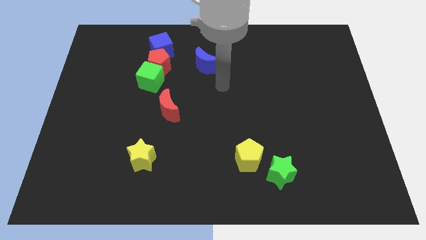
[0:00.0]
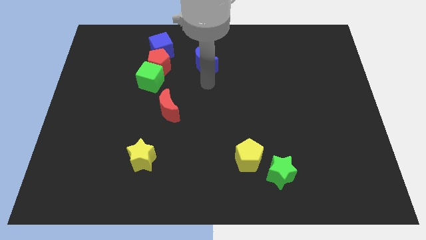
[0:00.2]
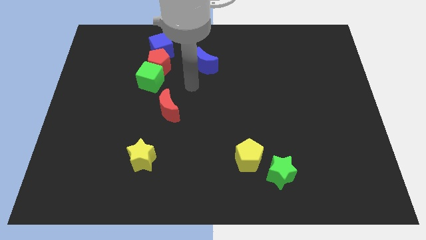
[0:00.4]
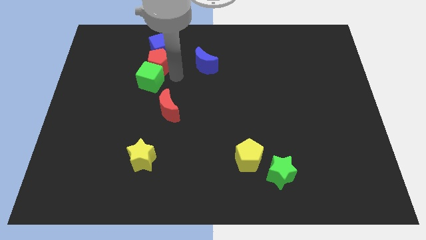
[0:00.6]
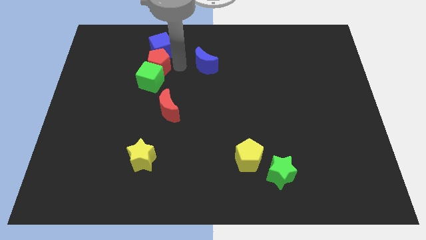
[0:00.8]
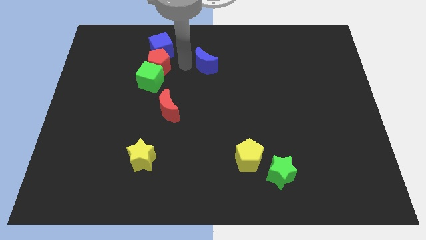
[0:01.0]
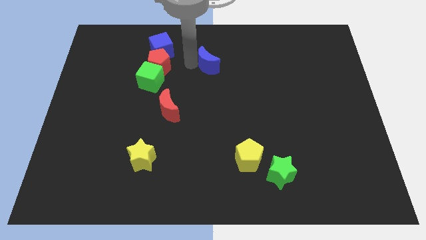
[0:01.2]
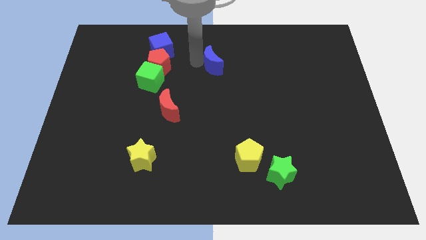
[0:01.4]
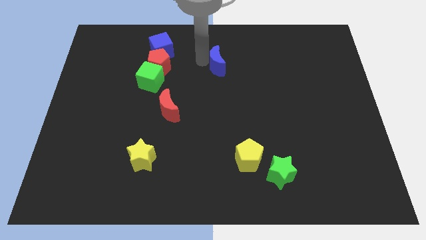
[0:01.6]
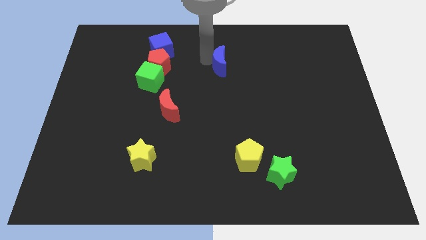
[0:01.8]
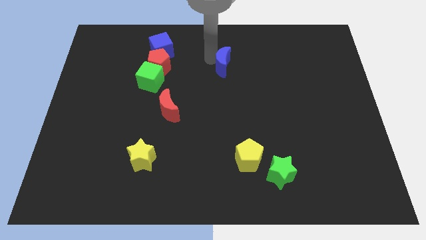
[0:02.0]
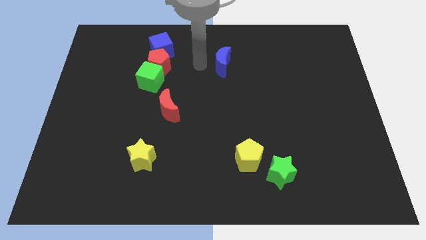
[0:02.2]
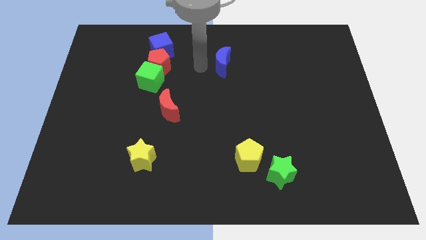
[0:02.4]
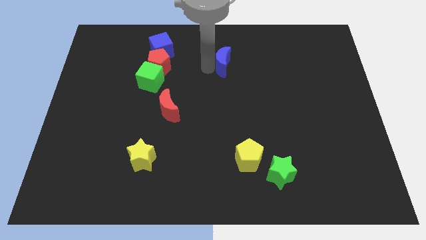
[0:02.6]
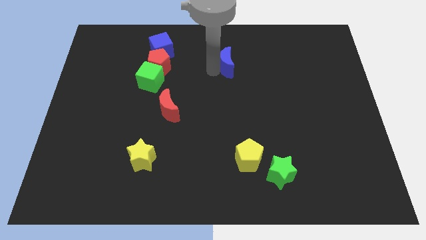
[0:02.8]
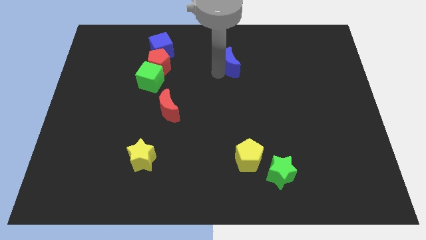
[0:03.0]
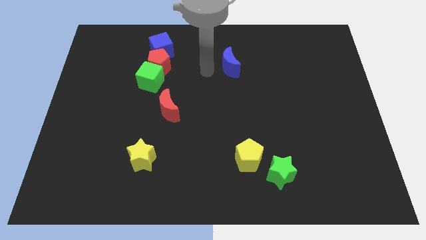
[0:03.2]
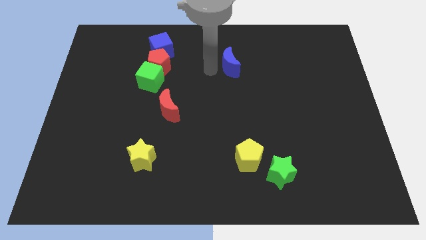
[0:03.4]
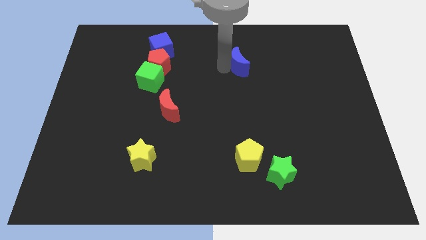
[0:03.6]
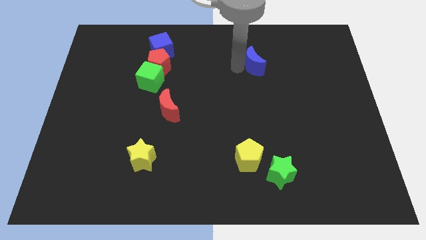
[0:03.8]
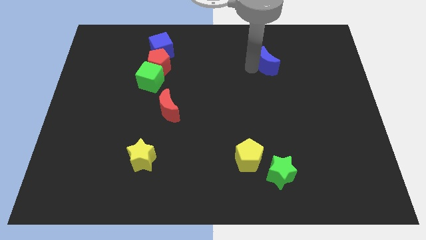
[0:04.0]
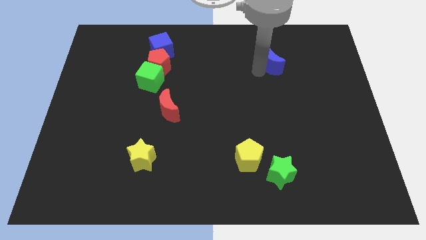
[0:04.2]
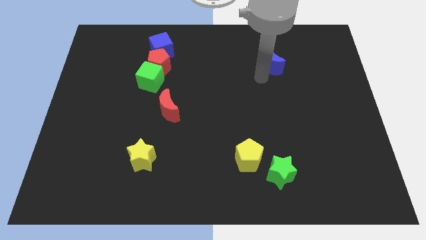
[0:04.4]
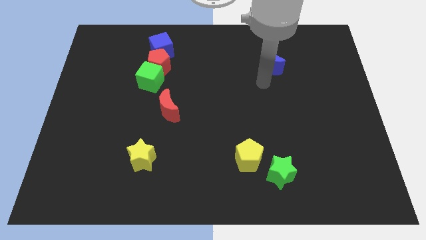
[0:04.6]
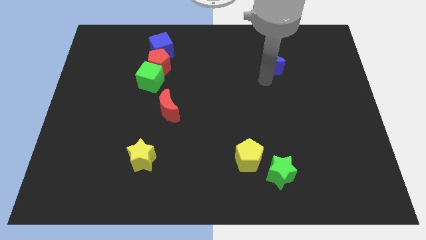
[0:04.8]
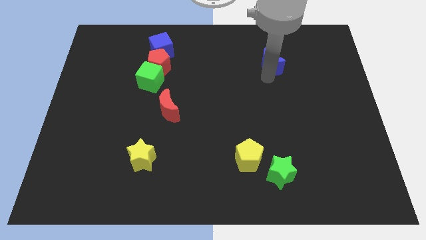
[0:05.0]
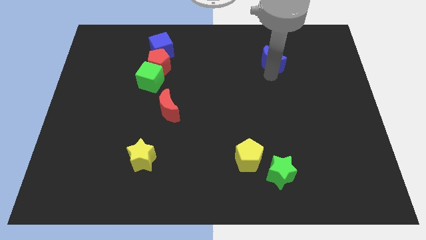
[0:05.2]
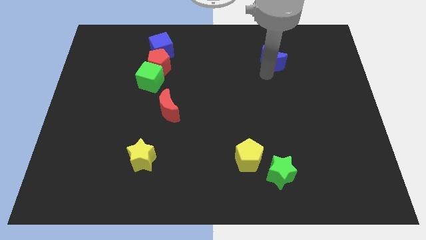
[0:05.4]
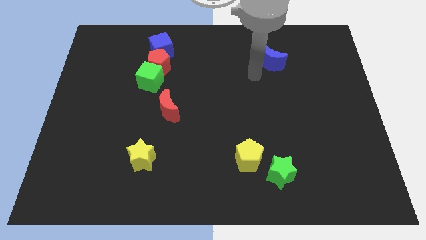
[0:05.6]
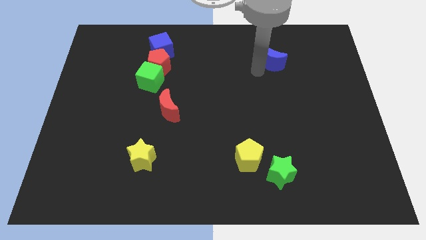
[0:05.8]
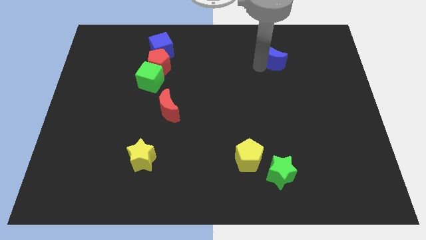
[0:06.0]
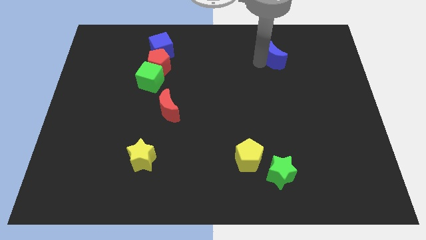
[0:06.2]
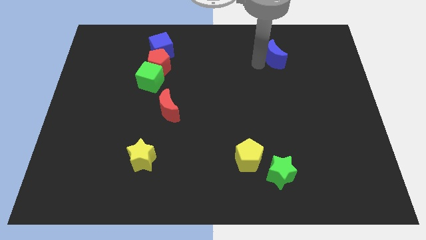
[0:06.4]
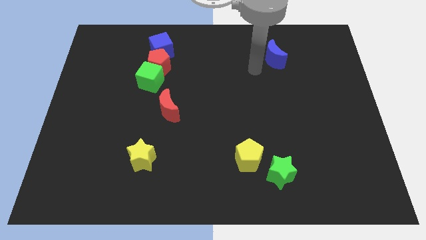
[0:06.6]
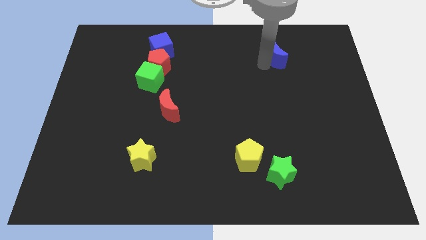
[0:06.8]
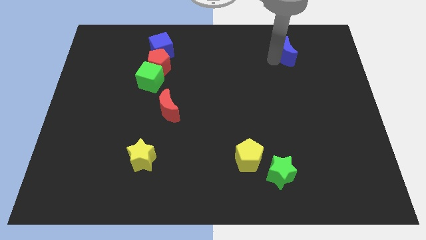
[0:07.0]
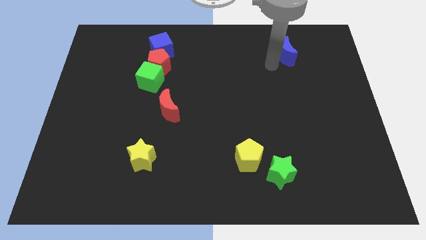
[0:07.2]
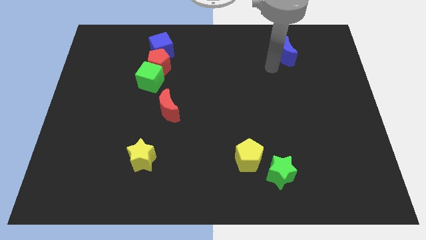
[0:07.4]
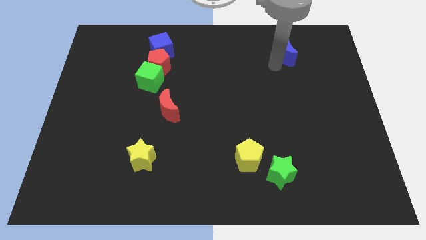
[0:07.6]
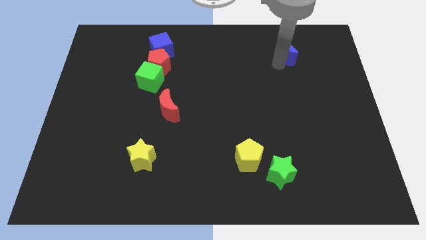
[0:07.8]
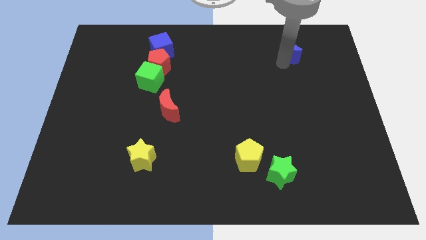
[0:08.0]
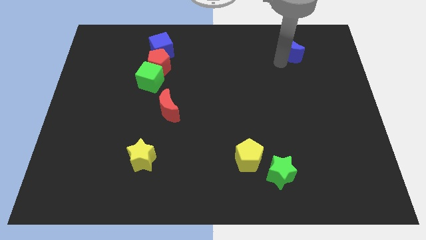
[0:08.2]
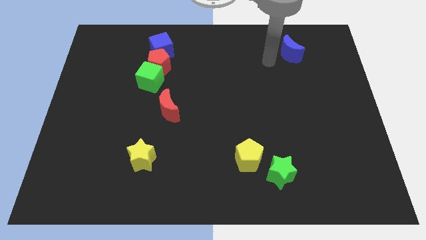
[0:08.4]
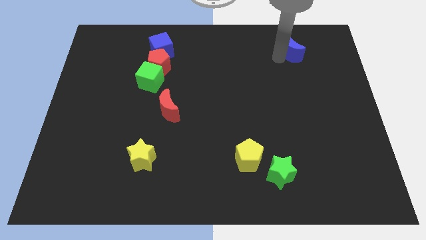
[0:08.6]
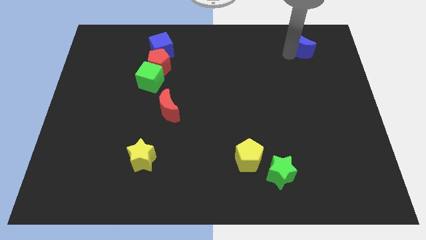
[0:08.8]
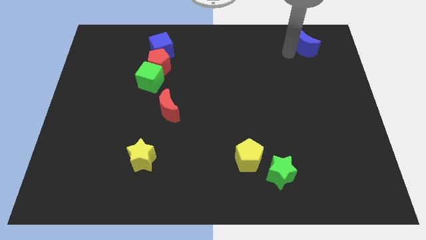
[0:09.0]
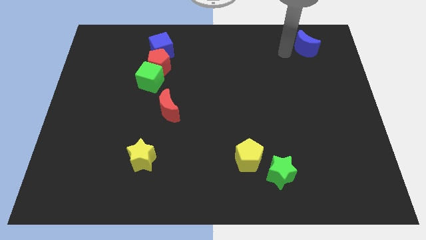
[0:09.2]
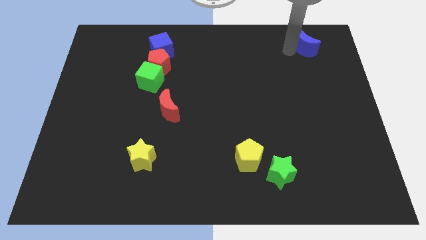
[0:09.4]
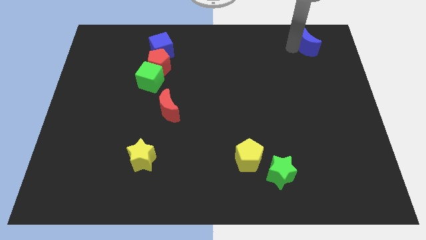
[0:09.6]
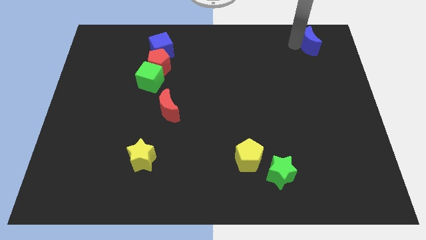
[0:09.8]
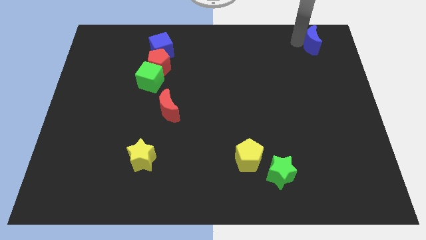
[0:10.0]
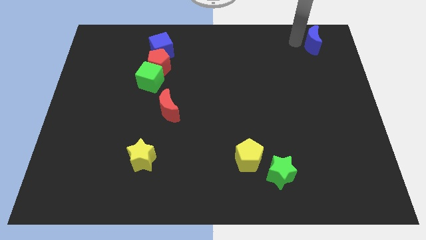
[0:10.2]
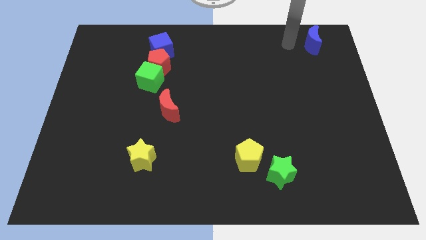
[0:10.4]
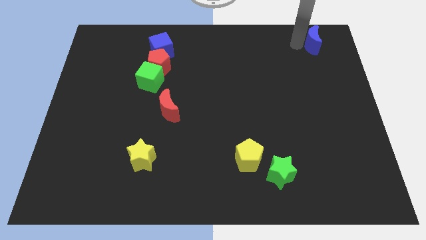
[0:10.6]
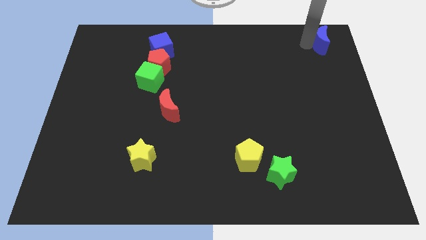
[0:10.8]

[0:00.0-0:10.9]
slide the blue moon to the top right
